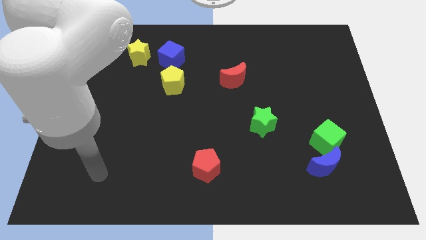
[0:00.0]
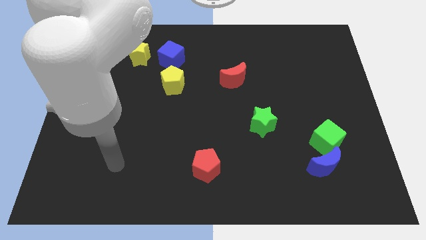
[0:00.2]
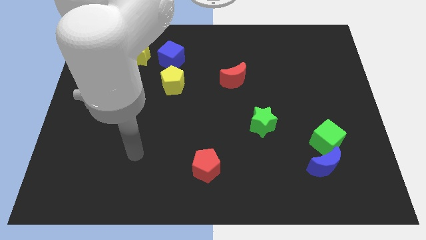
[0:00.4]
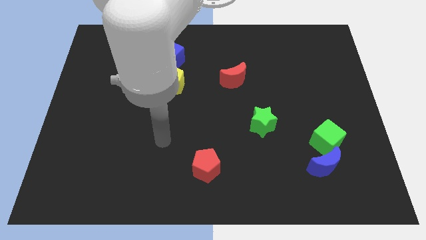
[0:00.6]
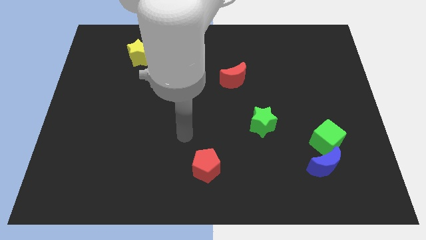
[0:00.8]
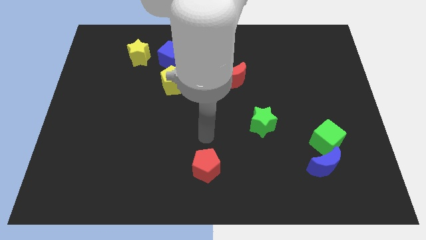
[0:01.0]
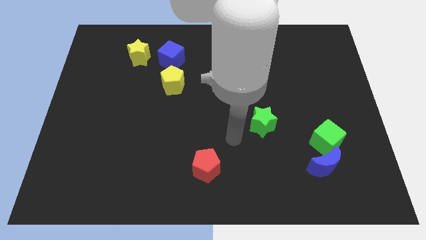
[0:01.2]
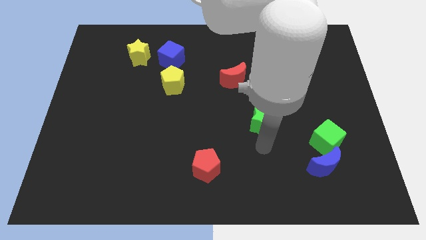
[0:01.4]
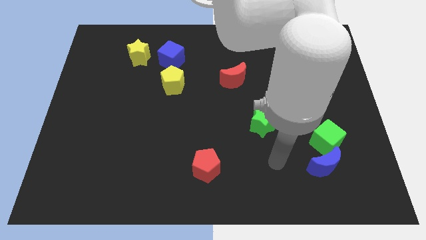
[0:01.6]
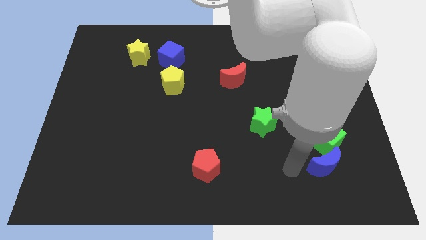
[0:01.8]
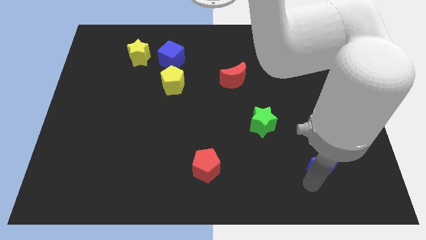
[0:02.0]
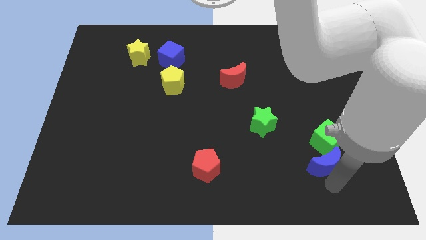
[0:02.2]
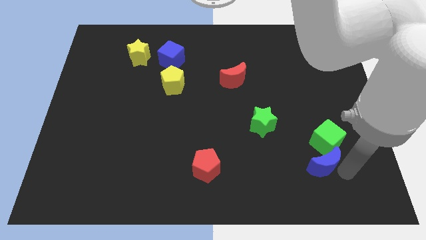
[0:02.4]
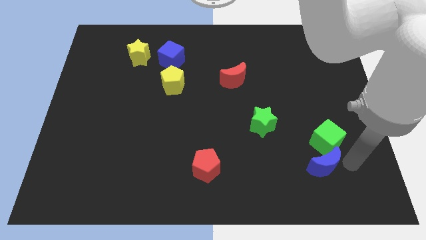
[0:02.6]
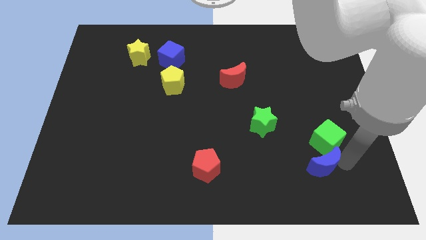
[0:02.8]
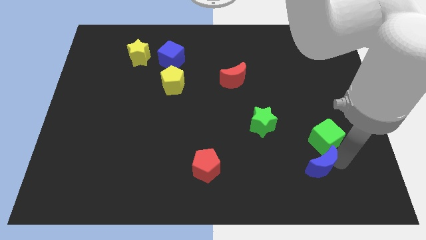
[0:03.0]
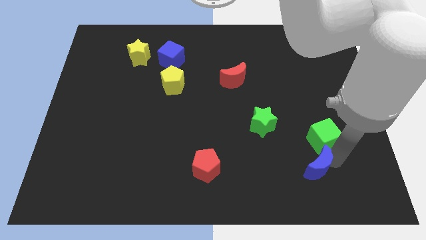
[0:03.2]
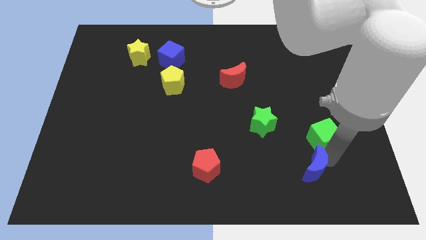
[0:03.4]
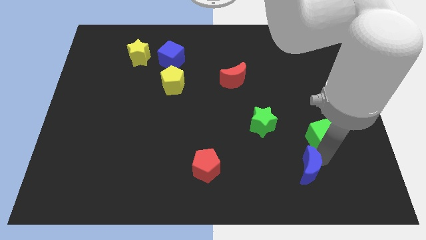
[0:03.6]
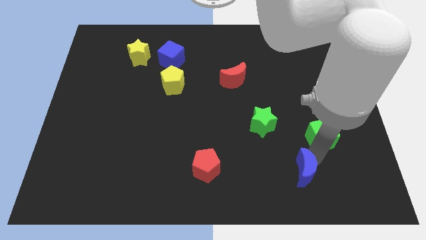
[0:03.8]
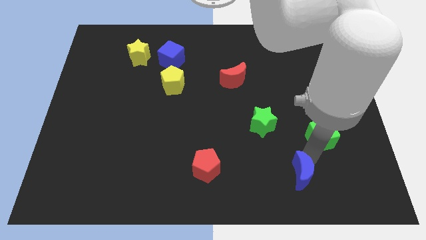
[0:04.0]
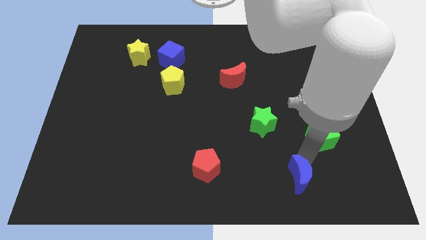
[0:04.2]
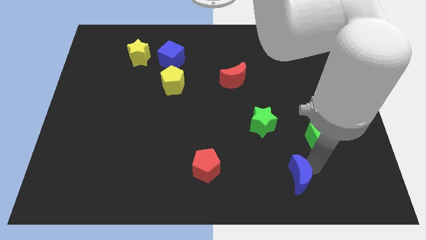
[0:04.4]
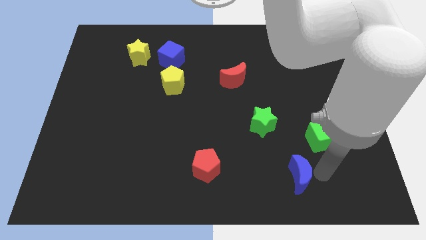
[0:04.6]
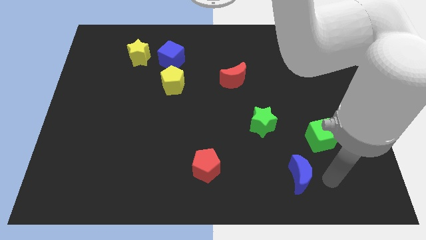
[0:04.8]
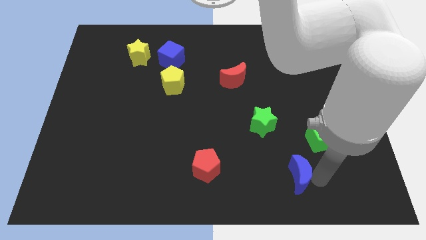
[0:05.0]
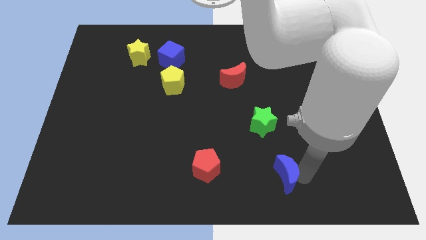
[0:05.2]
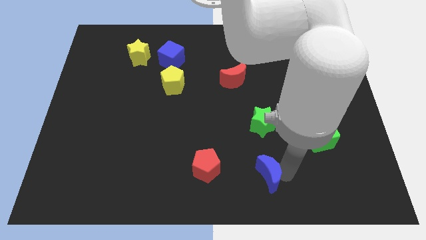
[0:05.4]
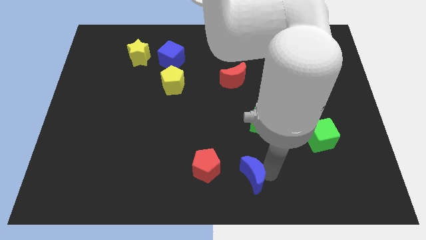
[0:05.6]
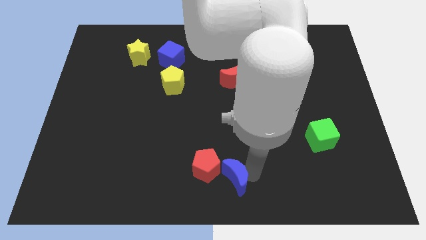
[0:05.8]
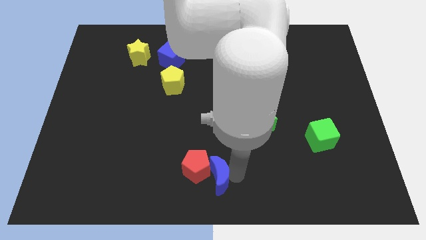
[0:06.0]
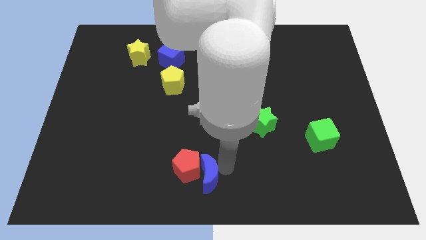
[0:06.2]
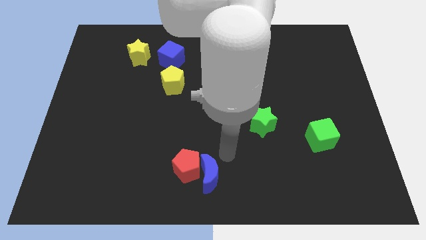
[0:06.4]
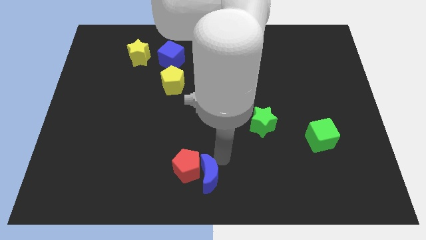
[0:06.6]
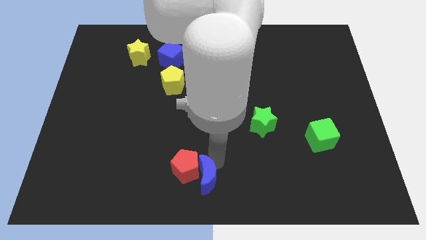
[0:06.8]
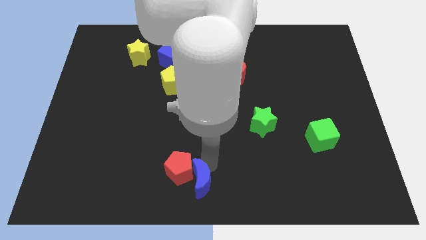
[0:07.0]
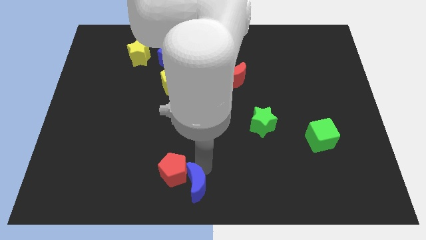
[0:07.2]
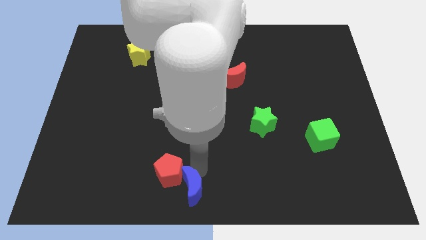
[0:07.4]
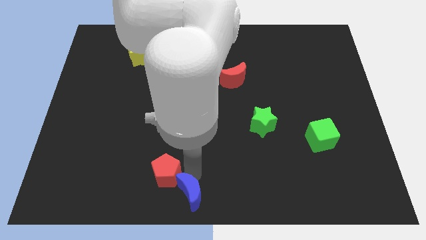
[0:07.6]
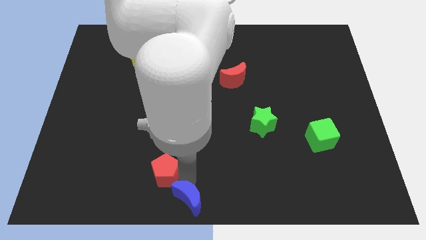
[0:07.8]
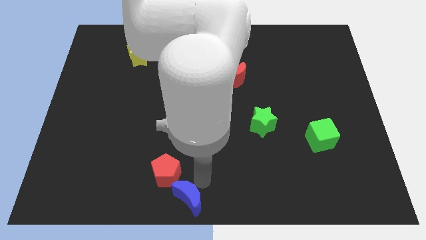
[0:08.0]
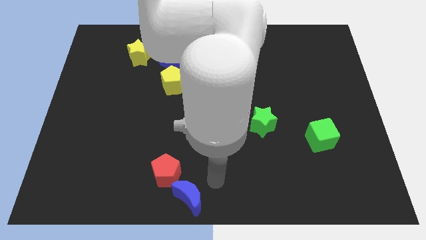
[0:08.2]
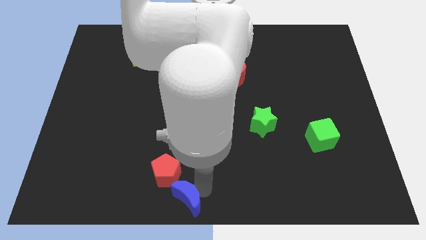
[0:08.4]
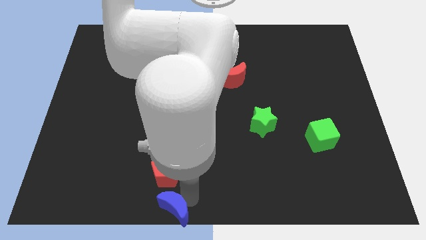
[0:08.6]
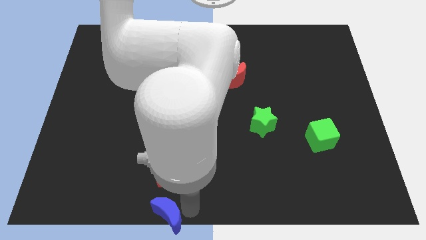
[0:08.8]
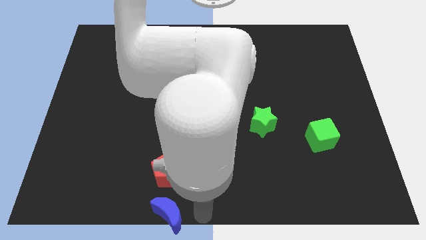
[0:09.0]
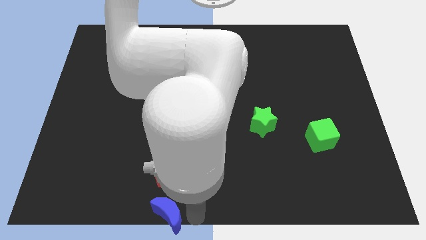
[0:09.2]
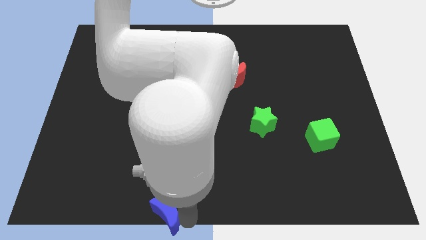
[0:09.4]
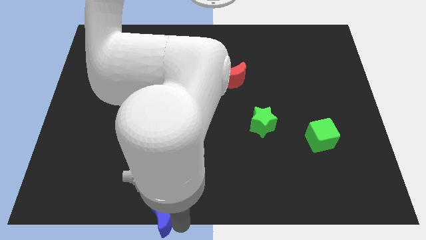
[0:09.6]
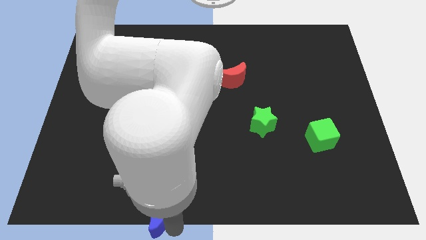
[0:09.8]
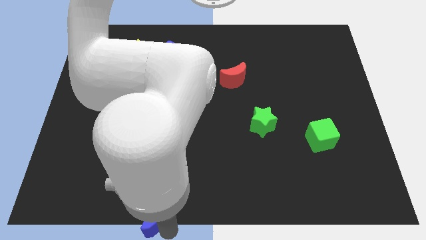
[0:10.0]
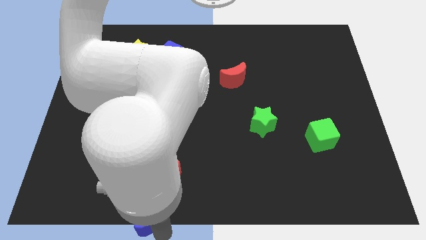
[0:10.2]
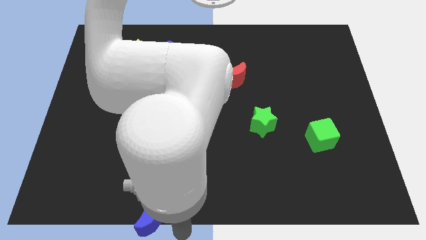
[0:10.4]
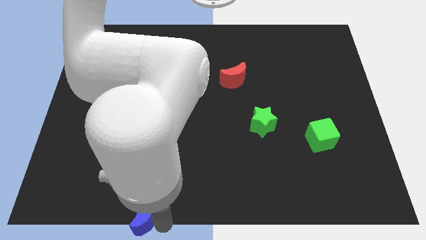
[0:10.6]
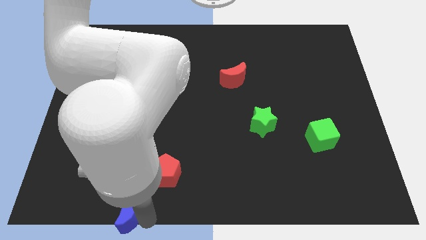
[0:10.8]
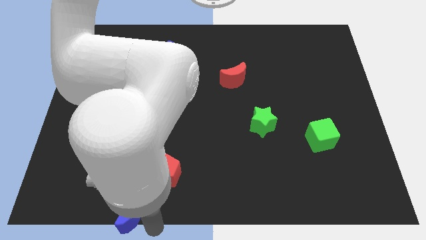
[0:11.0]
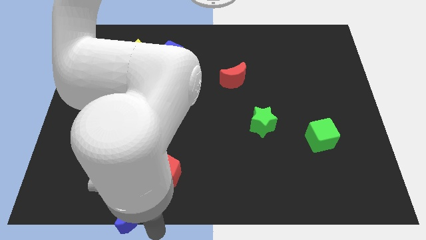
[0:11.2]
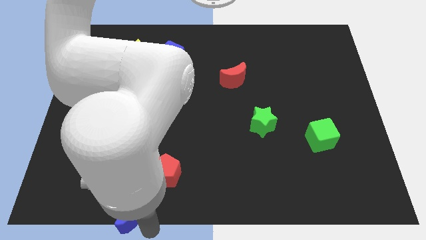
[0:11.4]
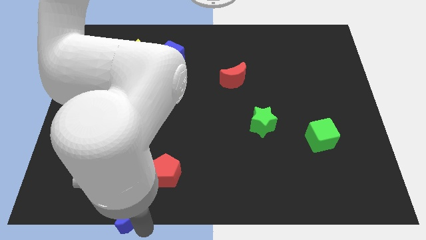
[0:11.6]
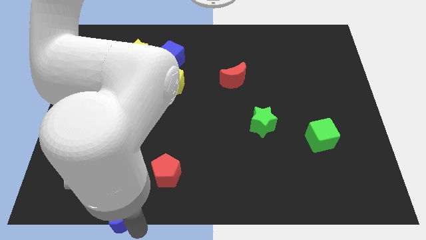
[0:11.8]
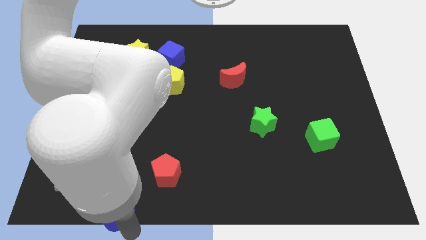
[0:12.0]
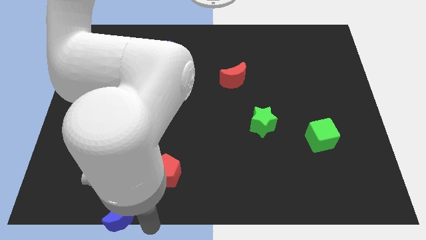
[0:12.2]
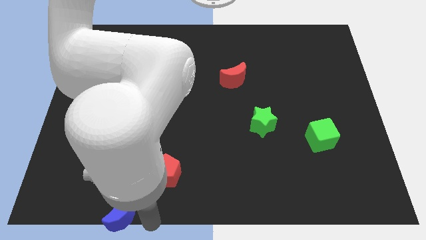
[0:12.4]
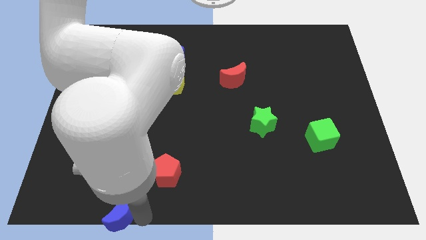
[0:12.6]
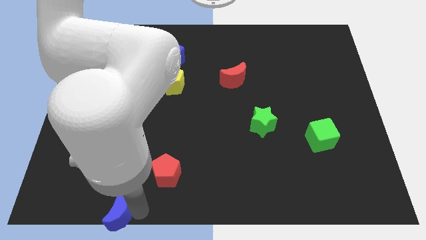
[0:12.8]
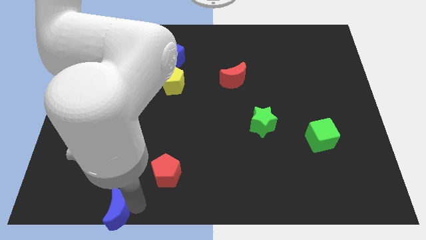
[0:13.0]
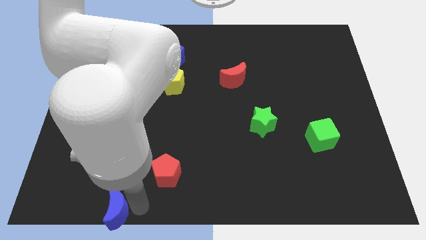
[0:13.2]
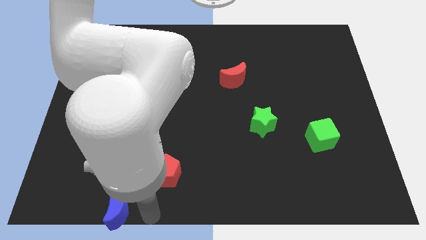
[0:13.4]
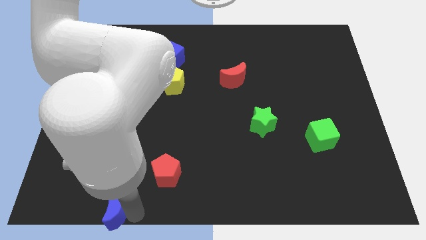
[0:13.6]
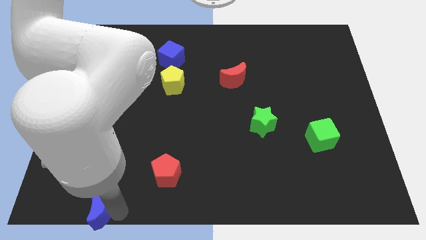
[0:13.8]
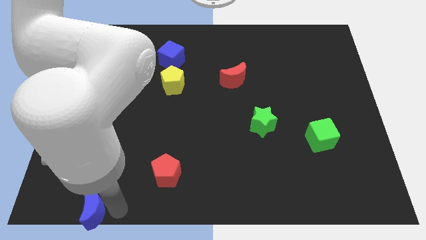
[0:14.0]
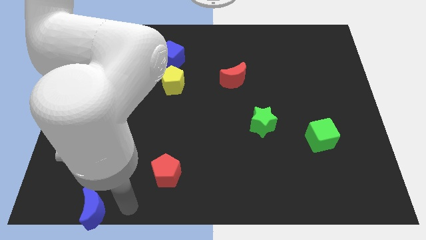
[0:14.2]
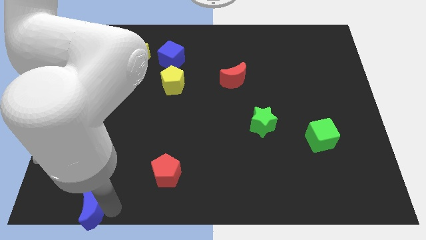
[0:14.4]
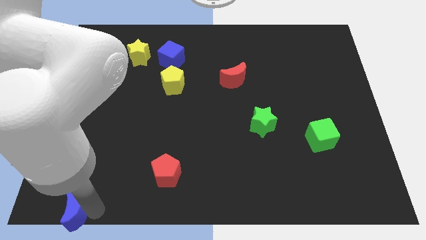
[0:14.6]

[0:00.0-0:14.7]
slide the blue moon to the bottom left of the board
